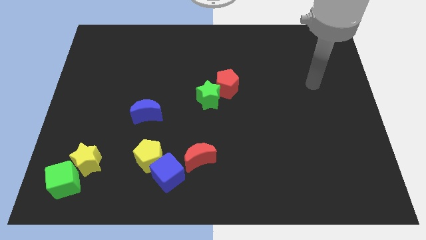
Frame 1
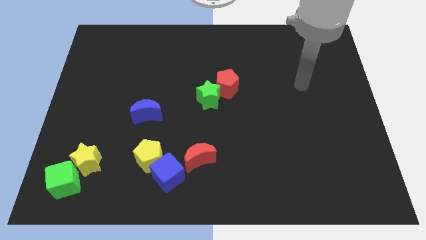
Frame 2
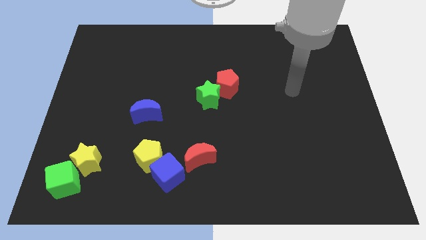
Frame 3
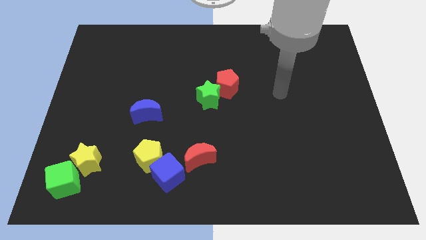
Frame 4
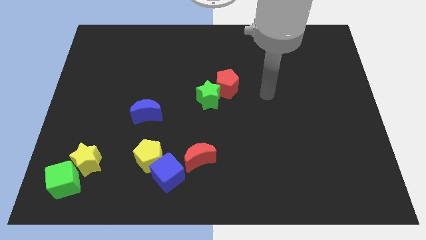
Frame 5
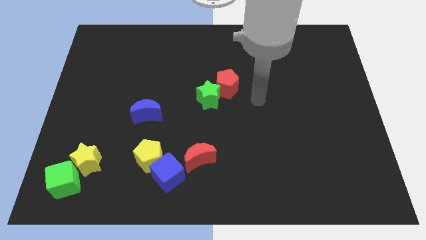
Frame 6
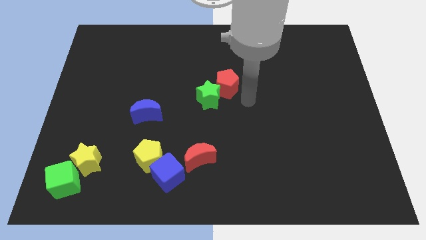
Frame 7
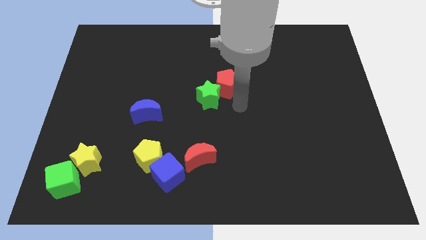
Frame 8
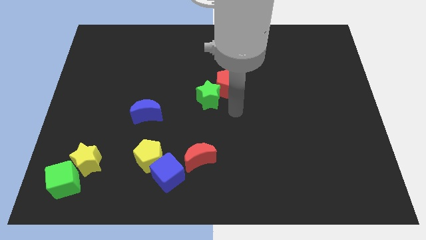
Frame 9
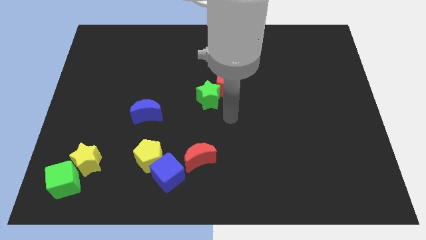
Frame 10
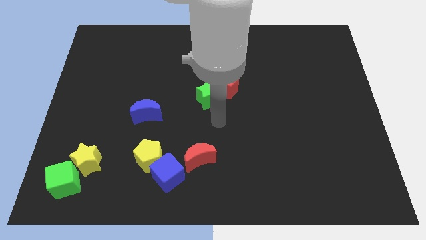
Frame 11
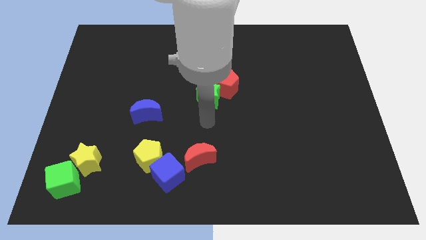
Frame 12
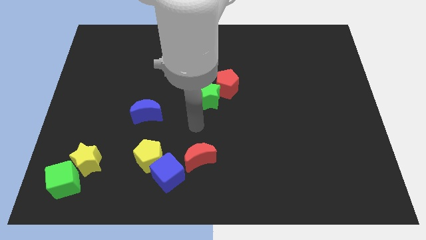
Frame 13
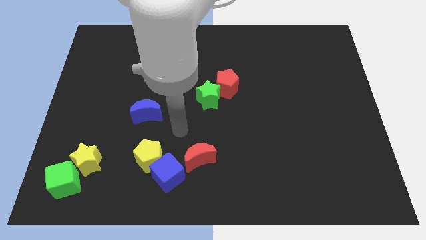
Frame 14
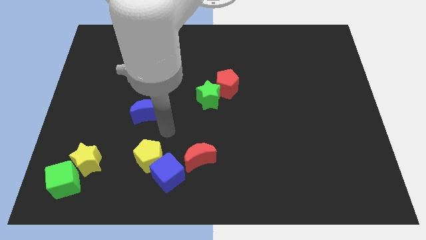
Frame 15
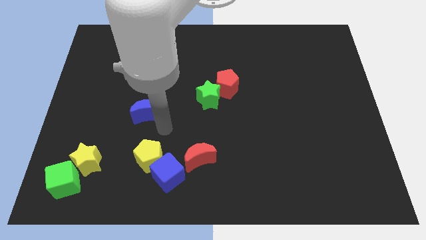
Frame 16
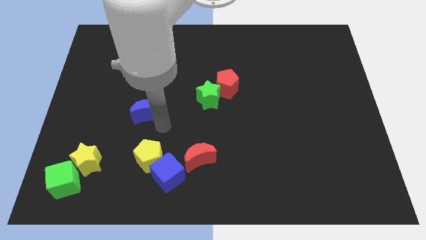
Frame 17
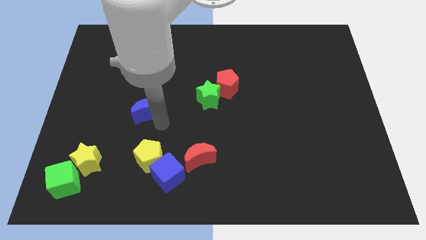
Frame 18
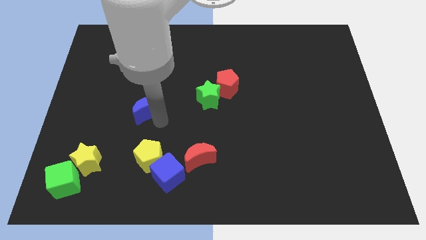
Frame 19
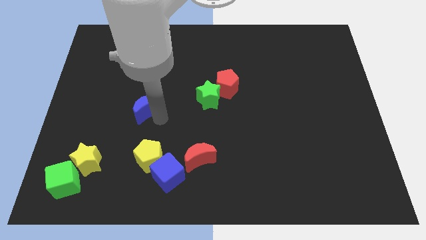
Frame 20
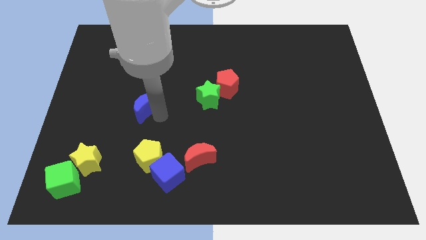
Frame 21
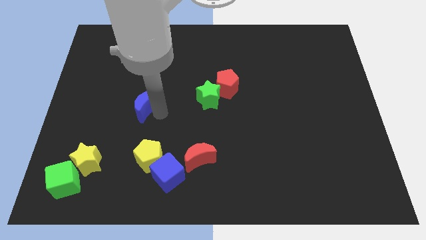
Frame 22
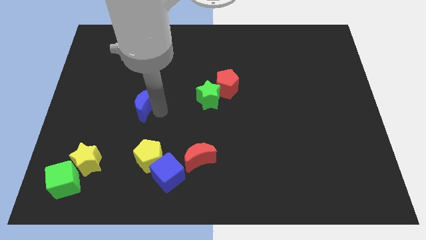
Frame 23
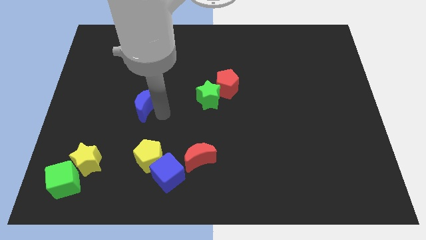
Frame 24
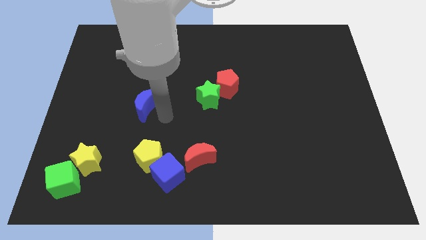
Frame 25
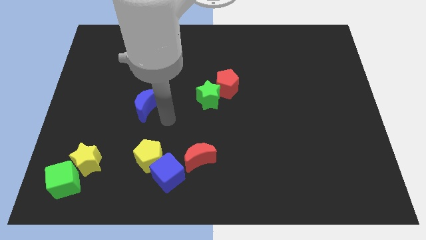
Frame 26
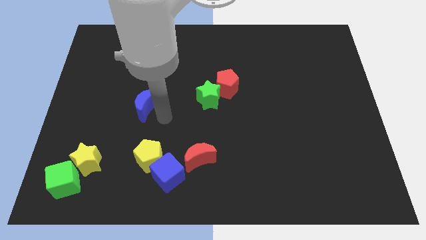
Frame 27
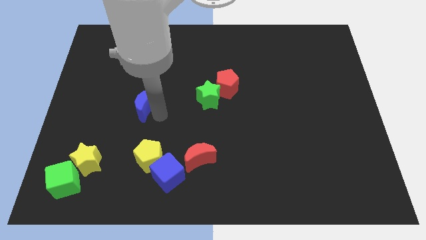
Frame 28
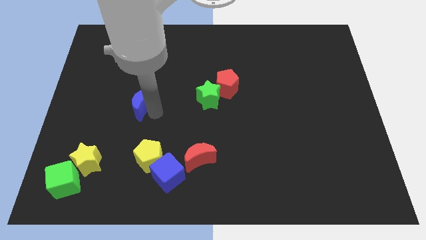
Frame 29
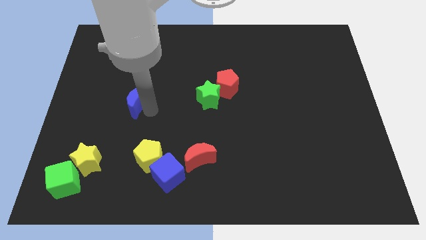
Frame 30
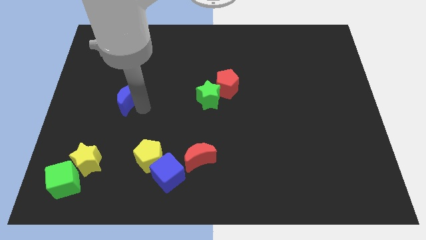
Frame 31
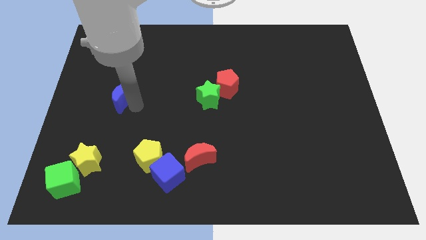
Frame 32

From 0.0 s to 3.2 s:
push the blue moon somewhat upwards and to the left diagonally

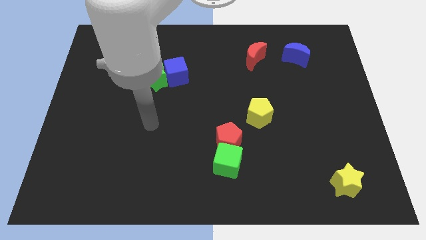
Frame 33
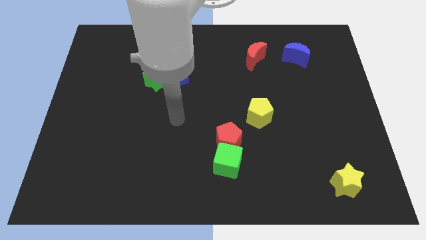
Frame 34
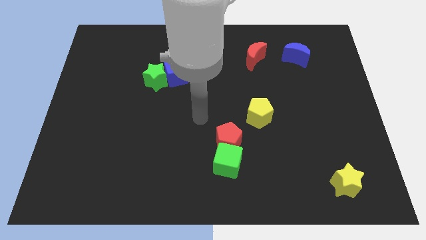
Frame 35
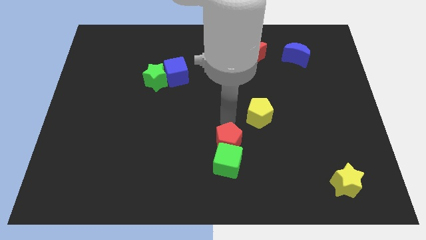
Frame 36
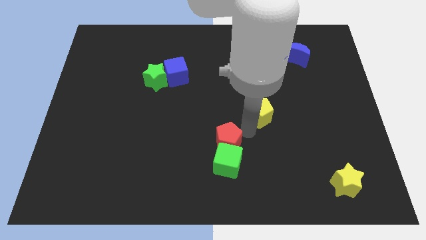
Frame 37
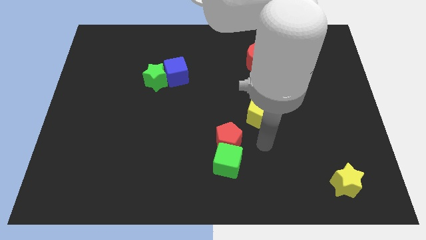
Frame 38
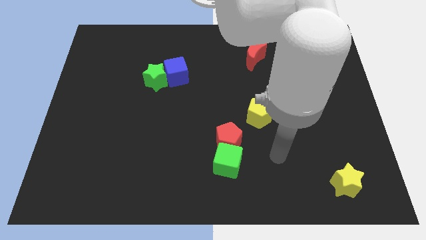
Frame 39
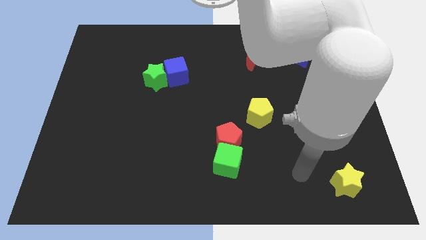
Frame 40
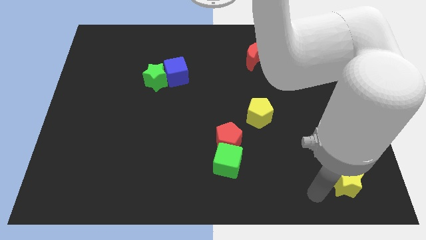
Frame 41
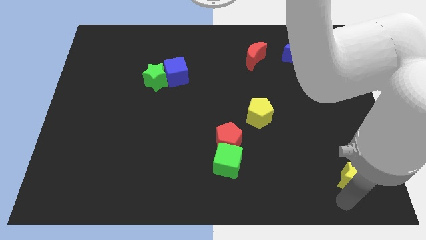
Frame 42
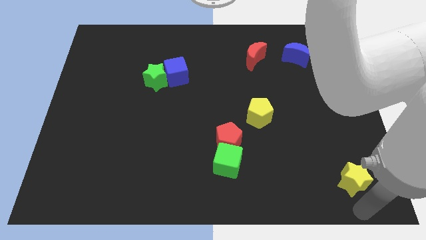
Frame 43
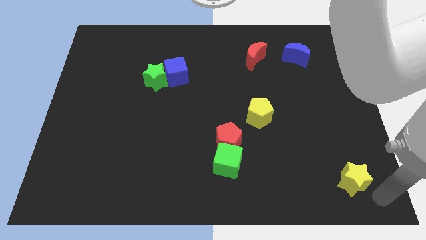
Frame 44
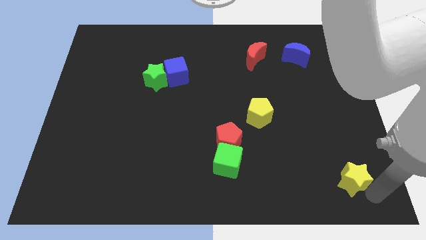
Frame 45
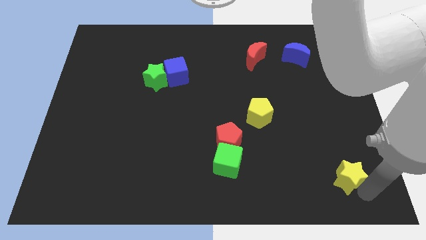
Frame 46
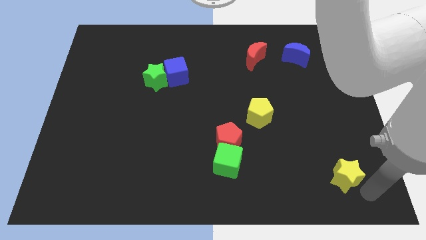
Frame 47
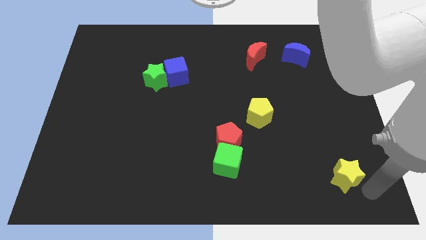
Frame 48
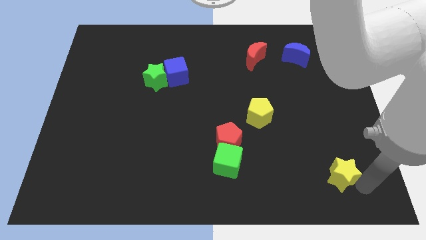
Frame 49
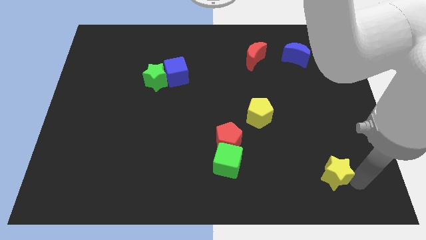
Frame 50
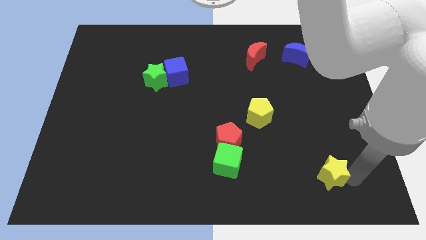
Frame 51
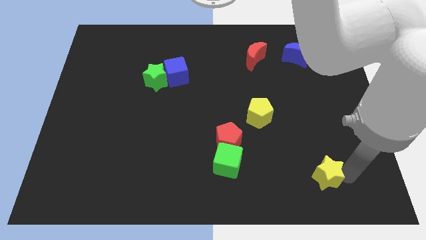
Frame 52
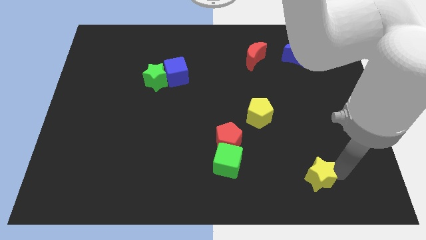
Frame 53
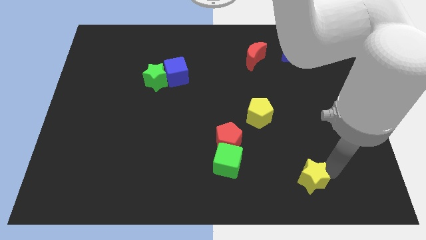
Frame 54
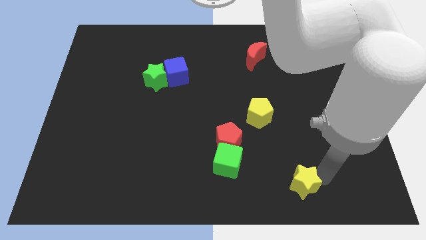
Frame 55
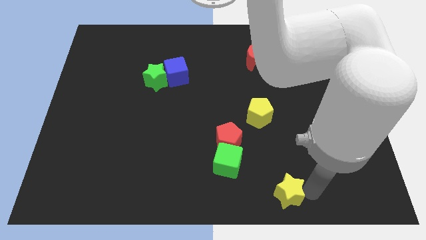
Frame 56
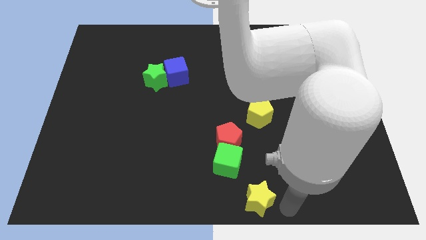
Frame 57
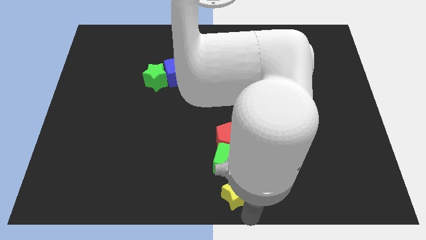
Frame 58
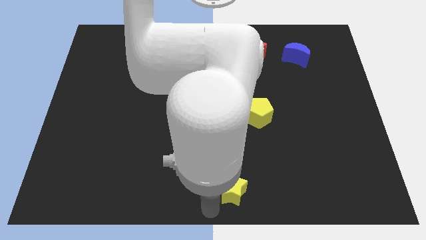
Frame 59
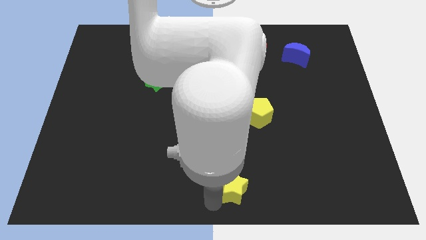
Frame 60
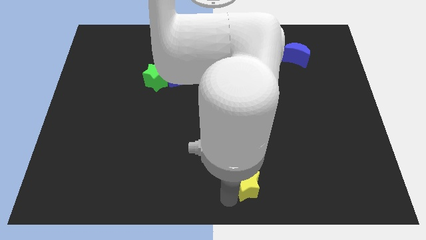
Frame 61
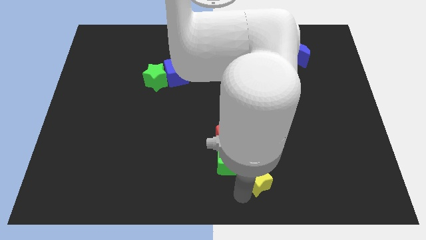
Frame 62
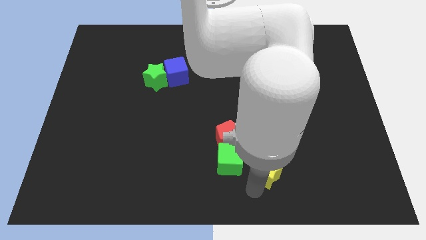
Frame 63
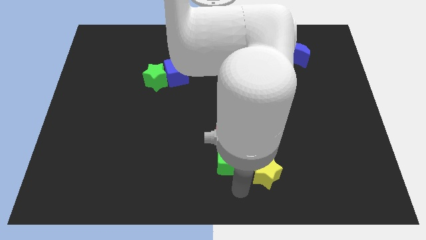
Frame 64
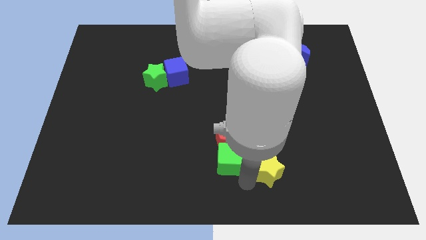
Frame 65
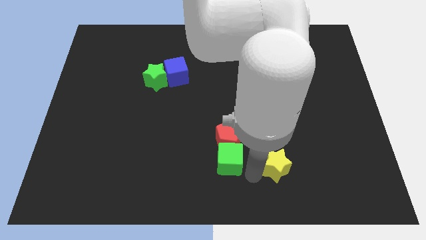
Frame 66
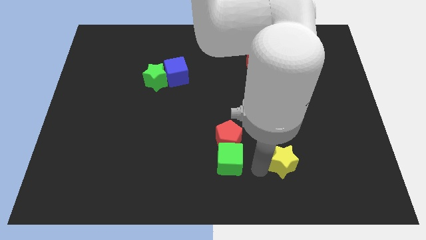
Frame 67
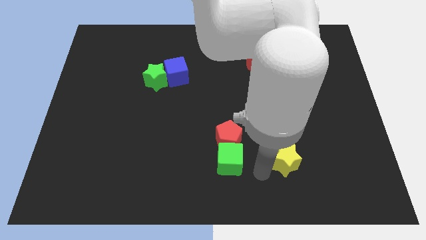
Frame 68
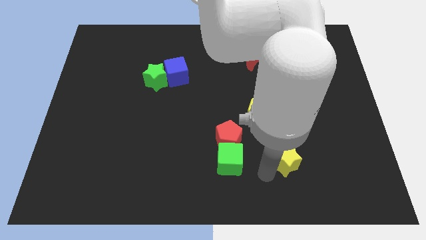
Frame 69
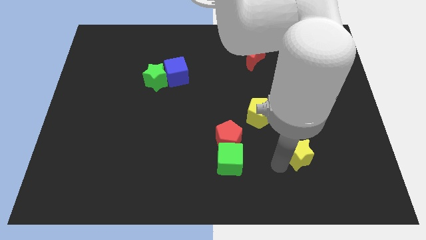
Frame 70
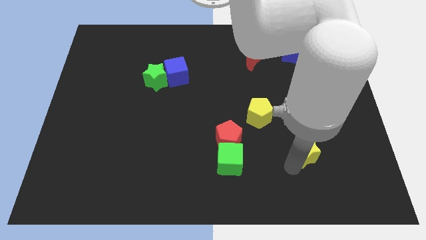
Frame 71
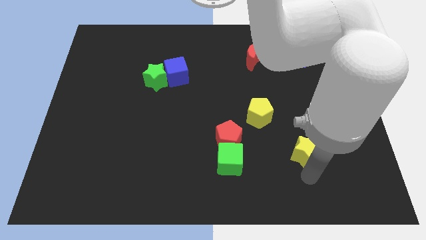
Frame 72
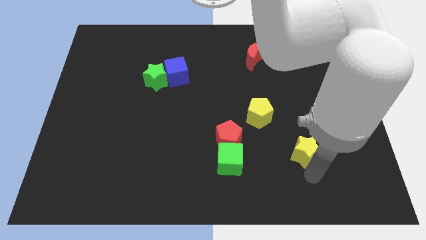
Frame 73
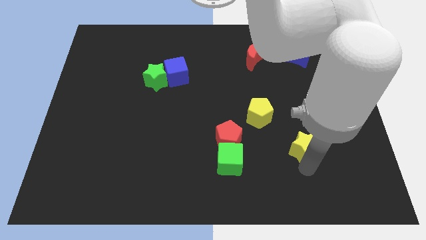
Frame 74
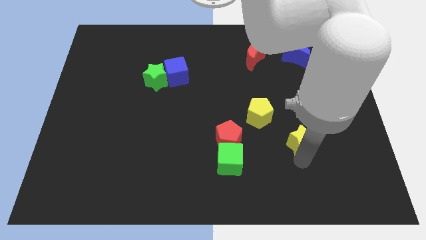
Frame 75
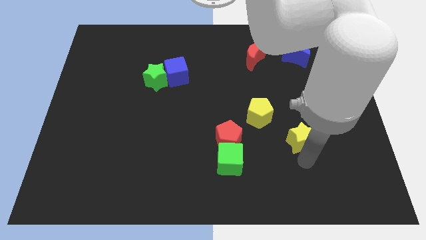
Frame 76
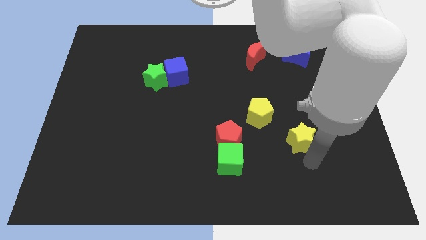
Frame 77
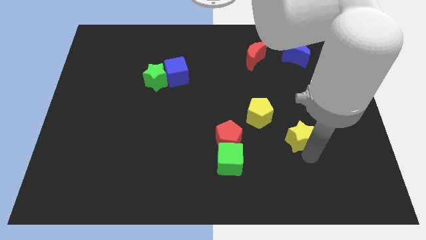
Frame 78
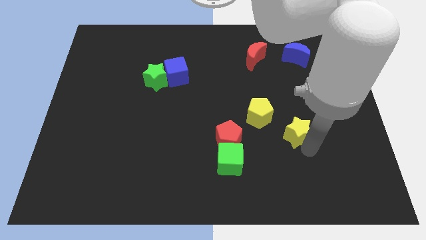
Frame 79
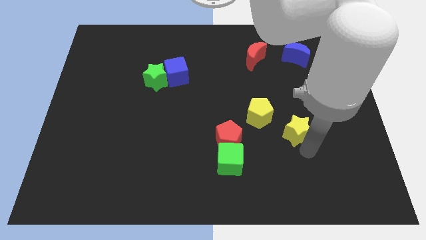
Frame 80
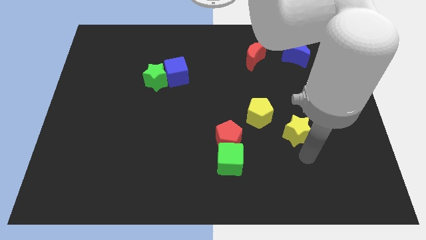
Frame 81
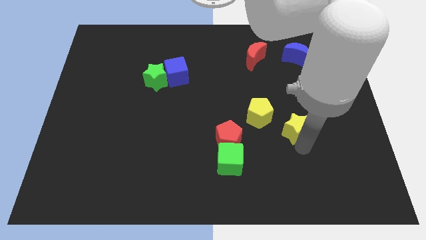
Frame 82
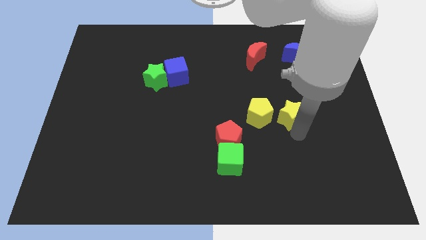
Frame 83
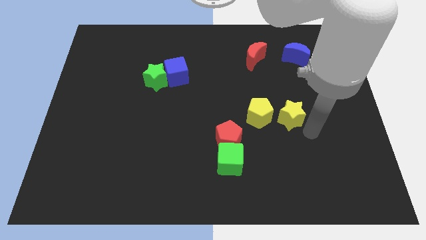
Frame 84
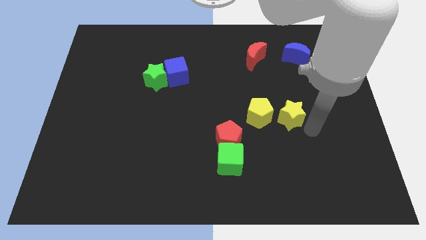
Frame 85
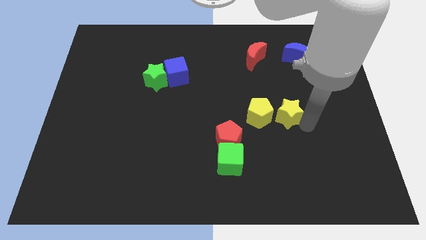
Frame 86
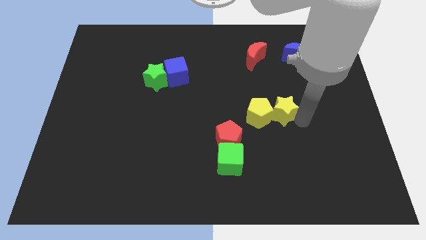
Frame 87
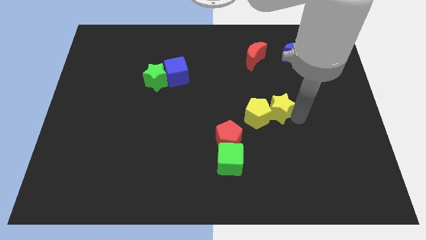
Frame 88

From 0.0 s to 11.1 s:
move the yellow star upwards and to the left diagonally
